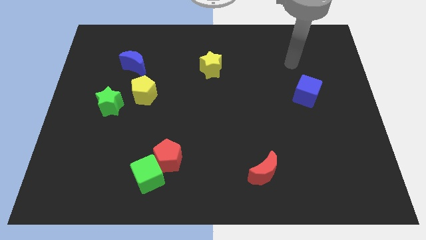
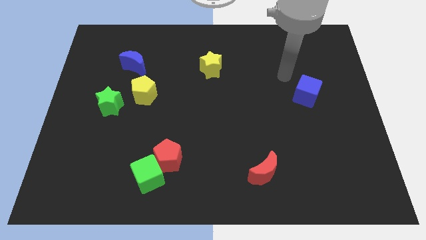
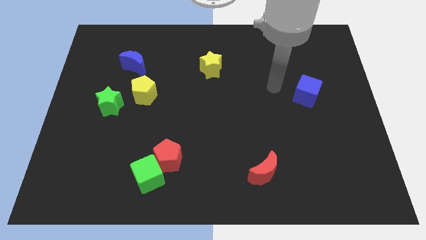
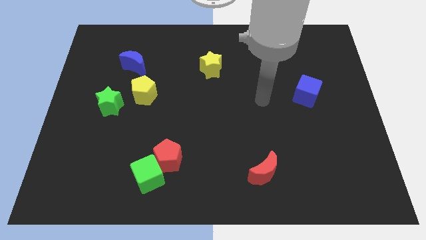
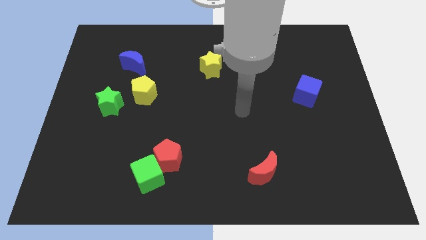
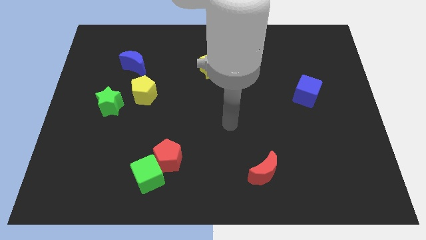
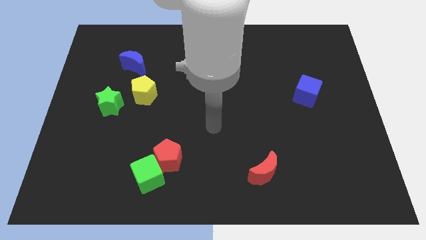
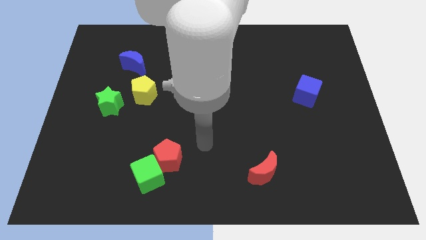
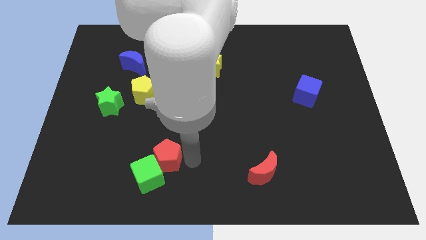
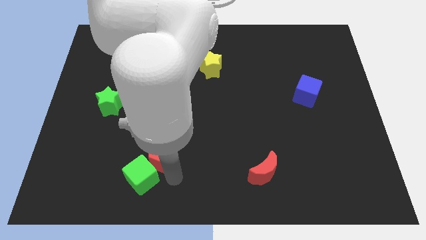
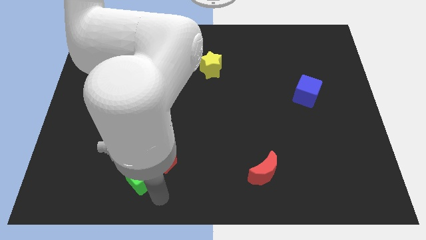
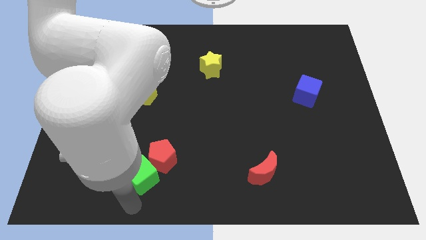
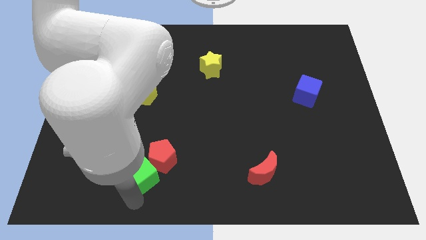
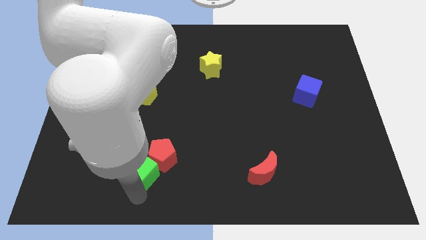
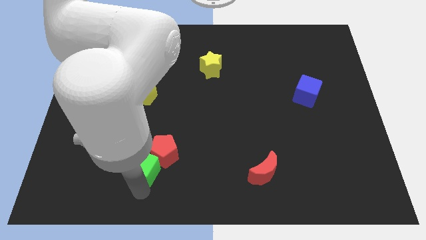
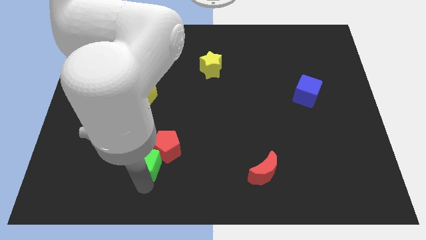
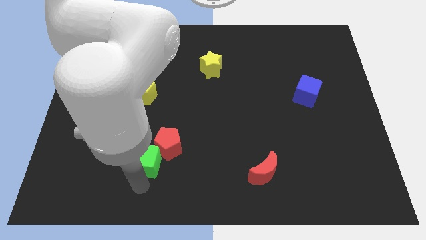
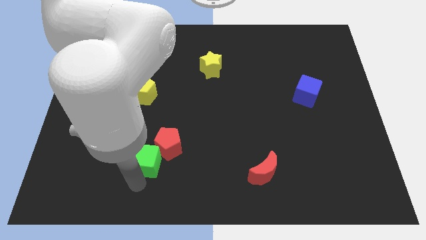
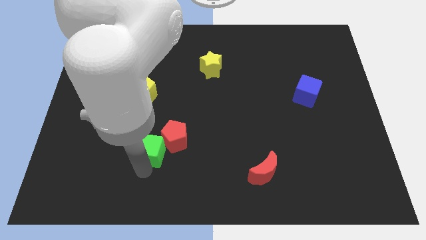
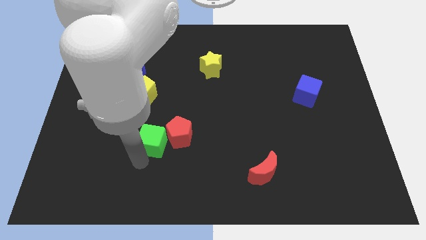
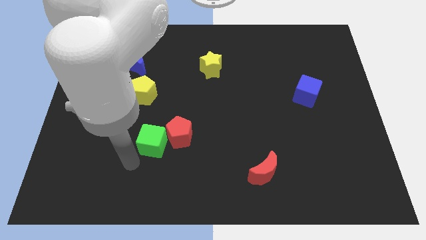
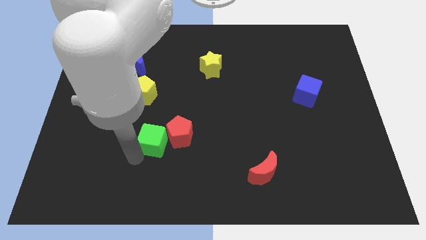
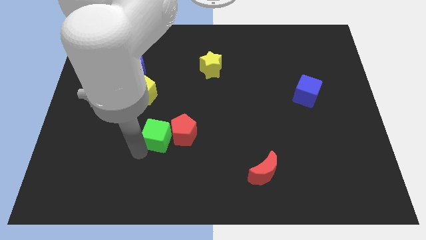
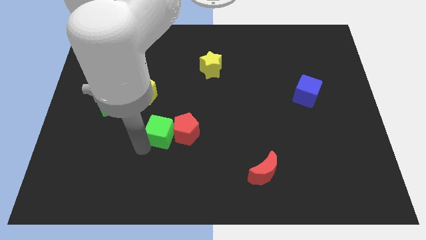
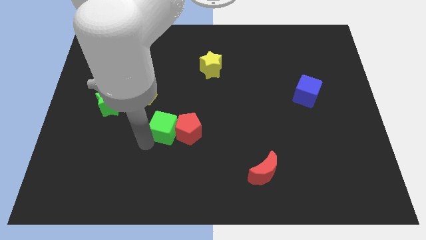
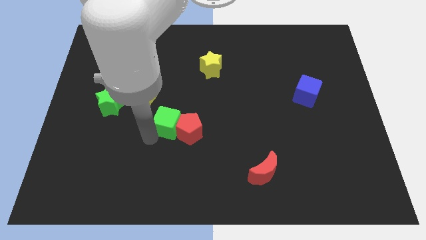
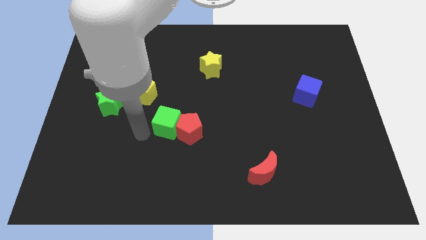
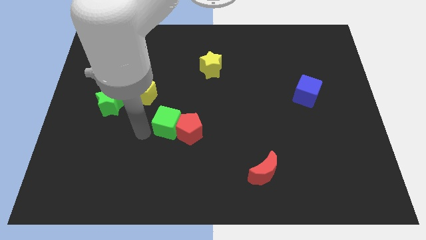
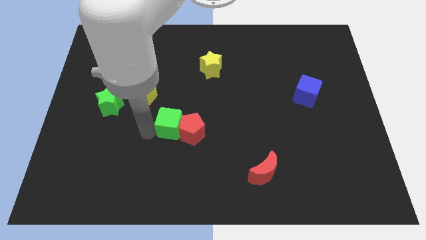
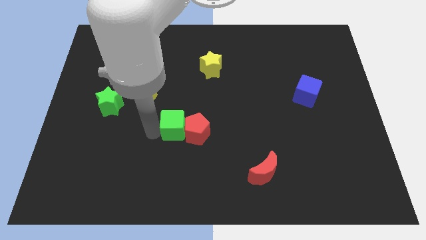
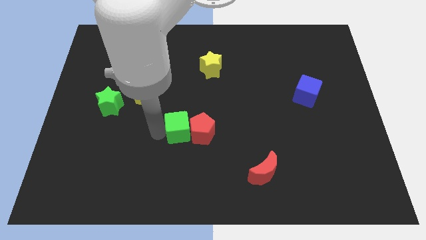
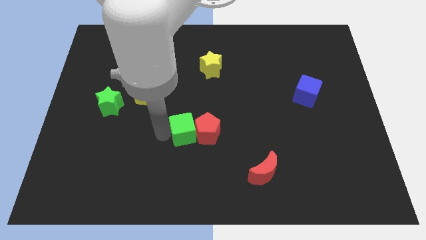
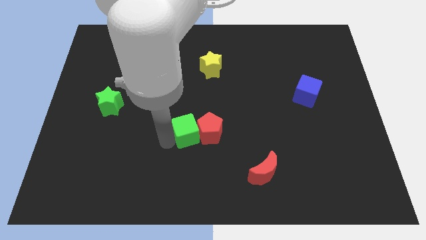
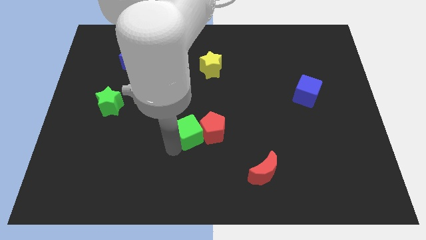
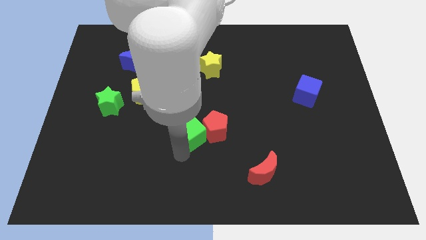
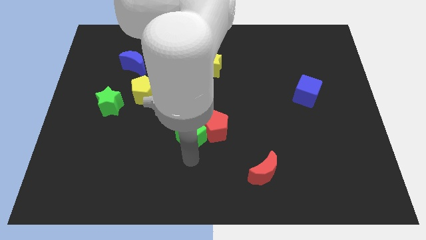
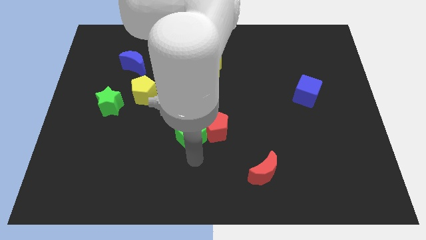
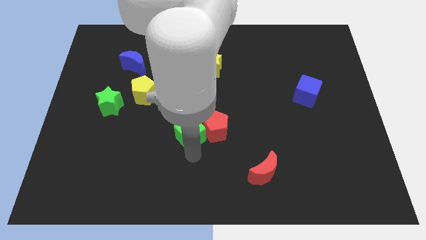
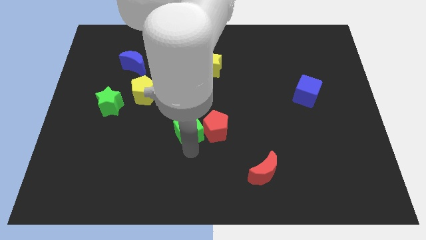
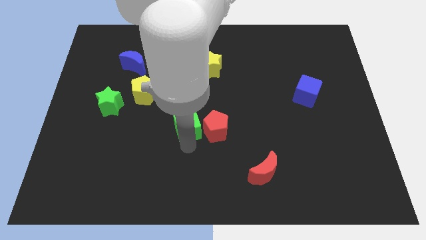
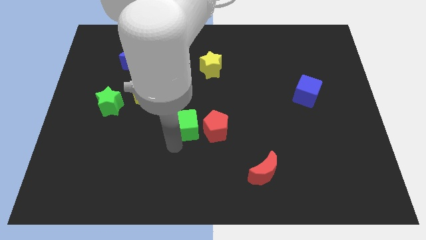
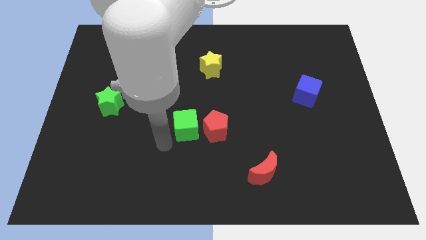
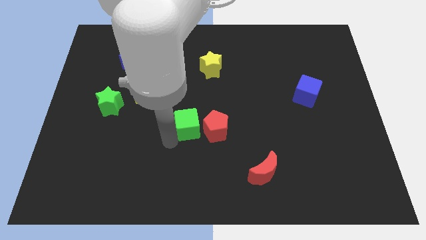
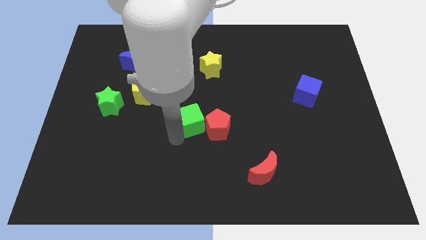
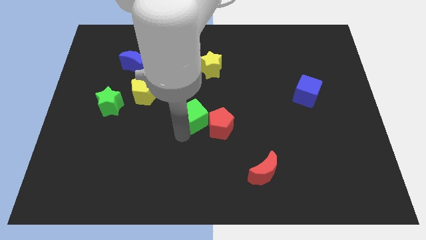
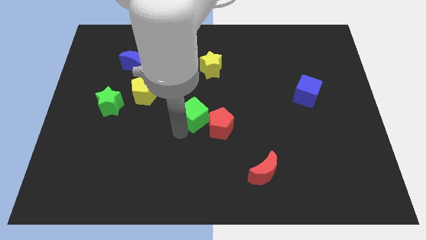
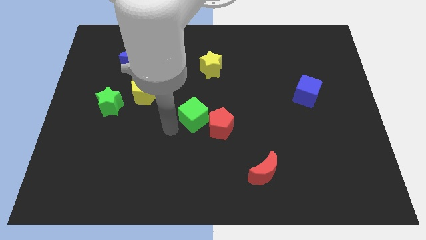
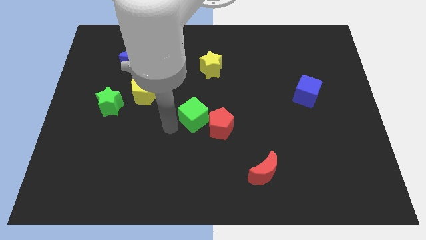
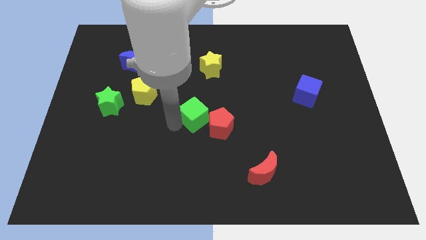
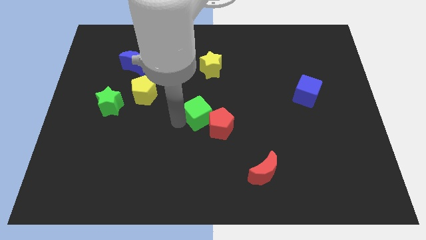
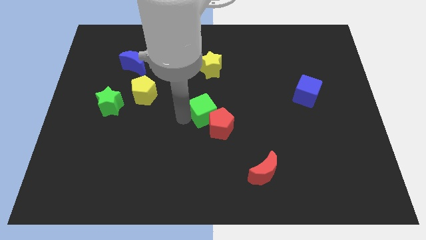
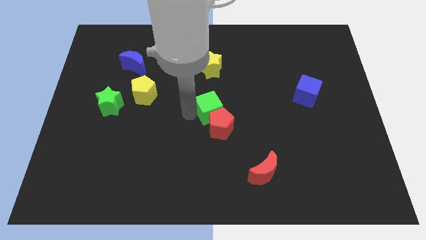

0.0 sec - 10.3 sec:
slide the green cube upwards and right diagonally

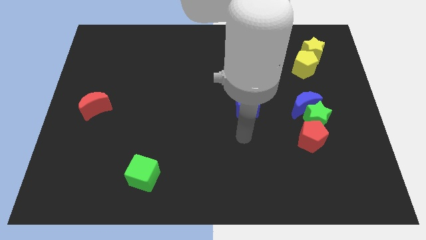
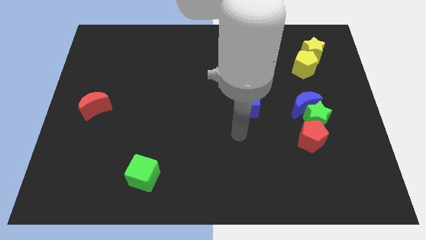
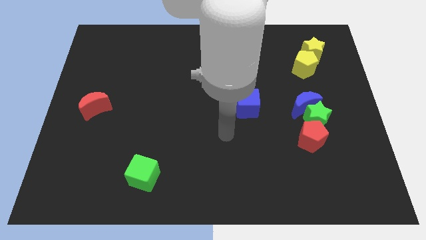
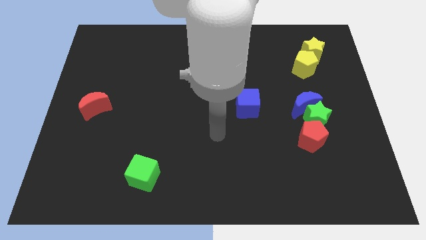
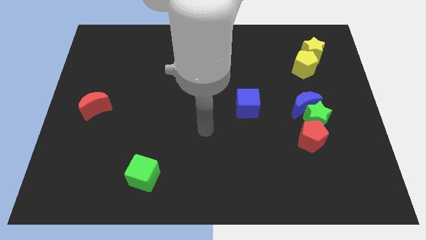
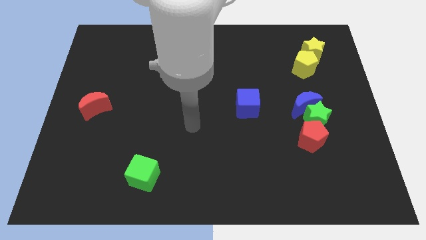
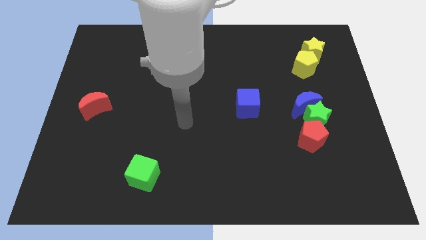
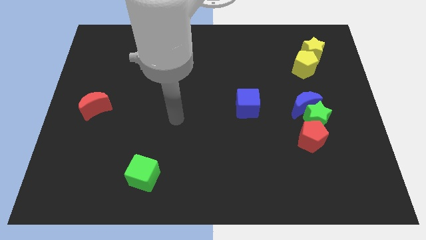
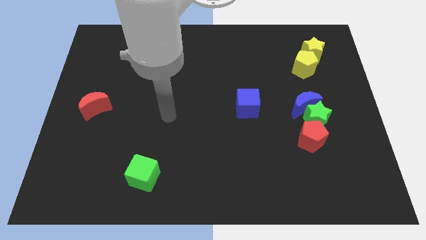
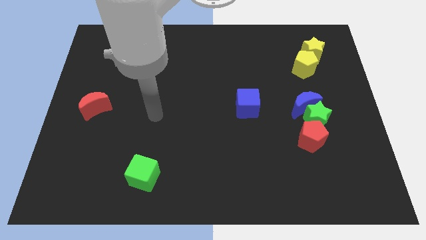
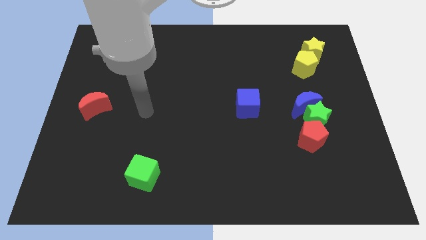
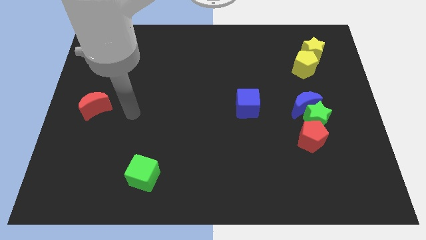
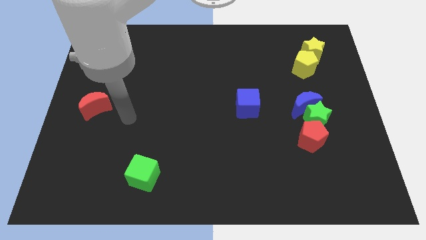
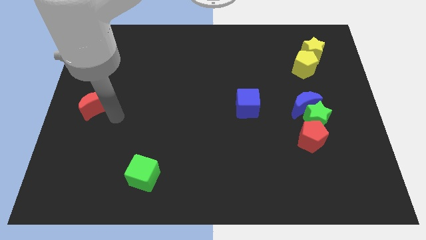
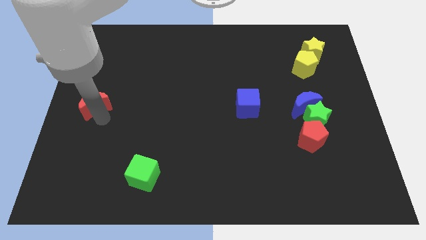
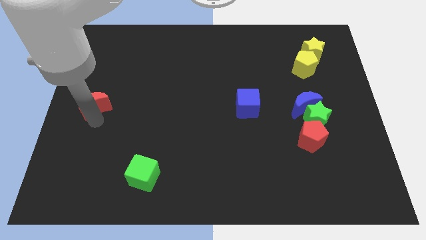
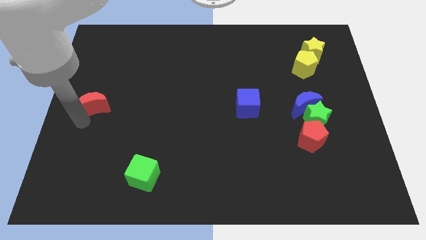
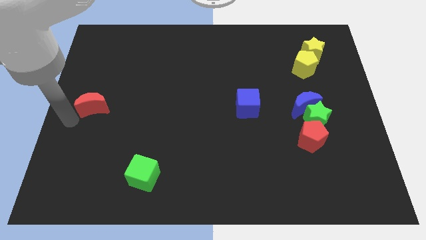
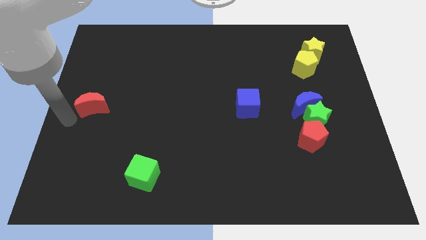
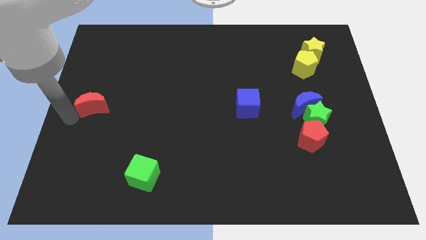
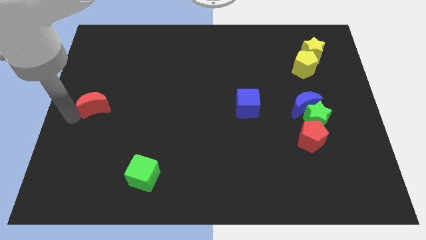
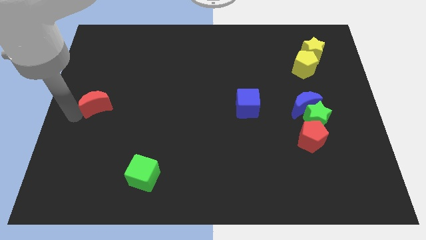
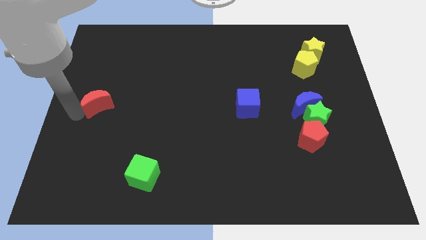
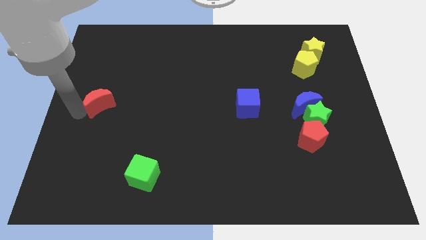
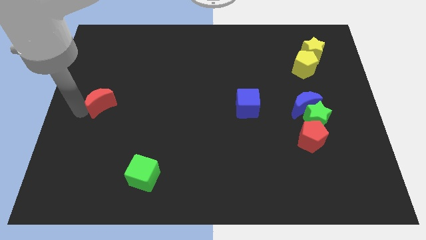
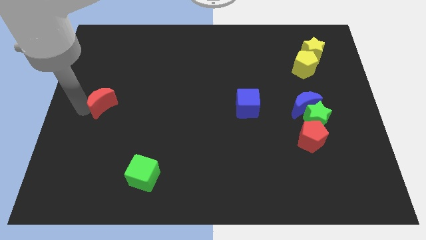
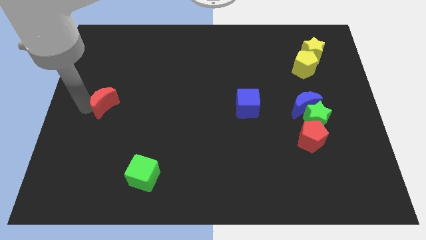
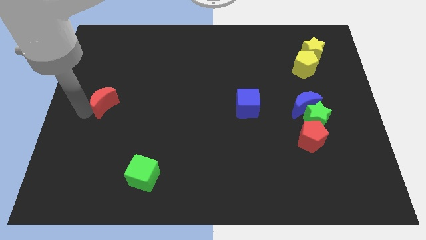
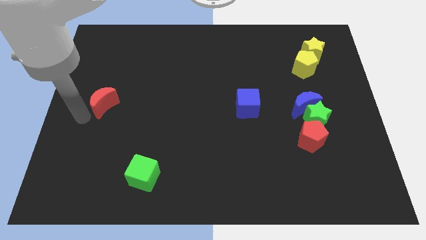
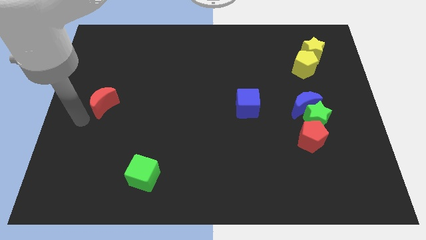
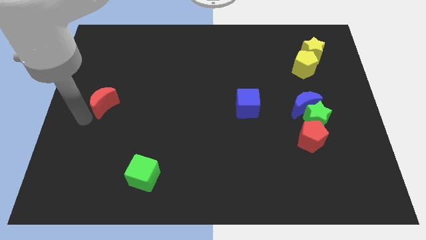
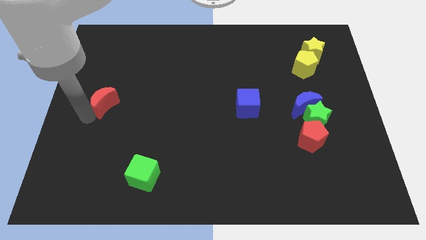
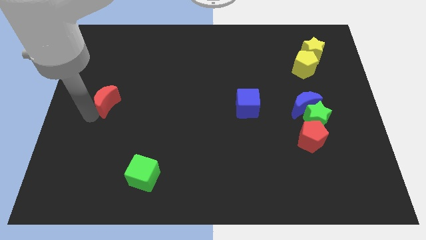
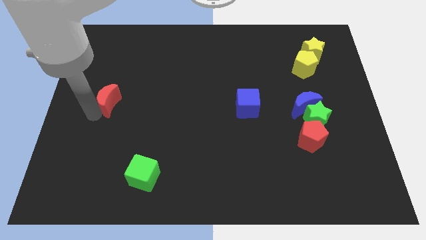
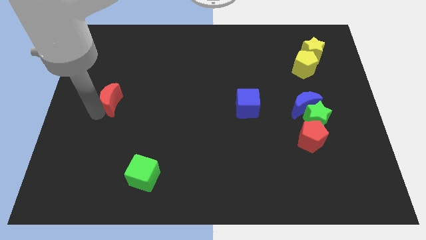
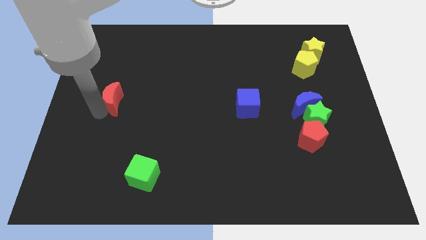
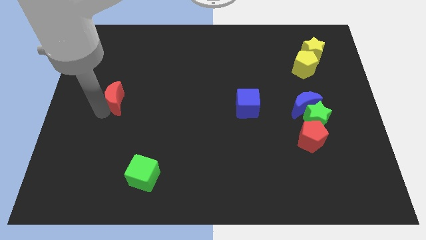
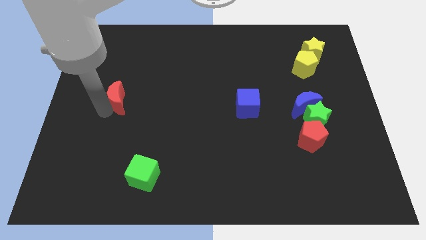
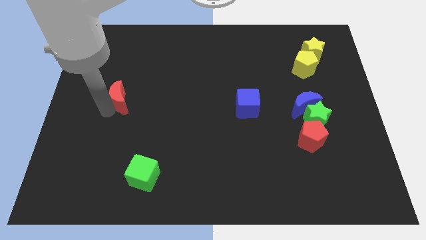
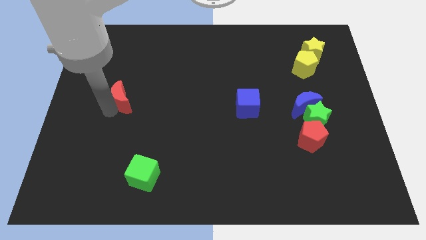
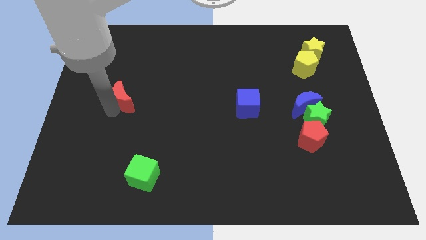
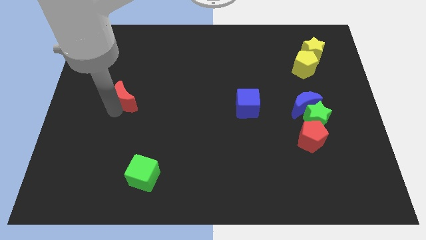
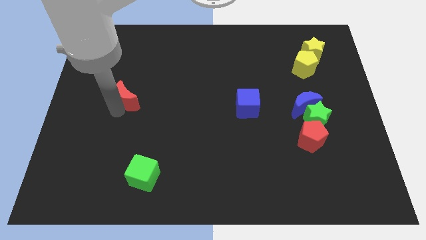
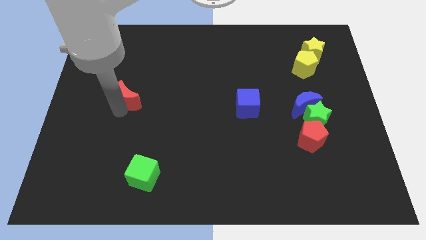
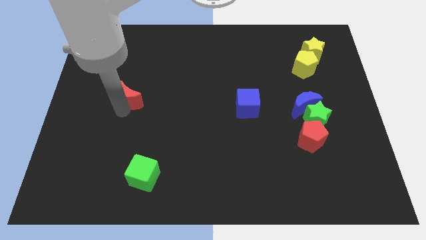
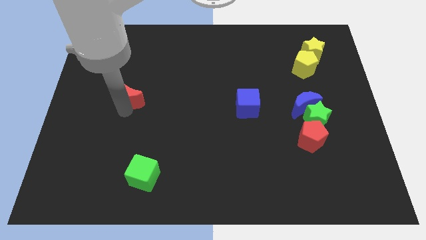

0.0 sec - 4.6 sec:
move the red moon up and right a bit
